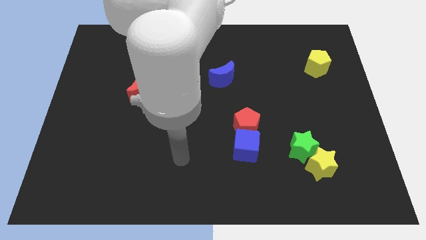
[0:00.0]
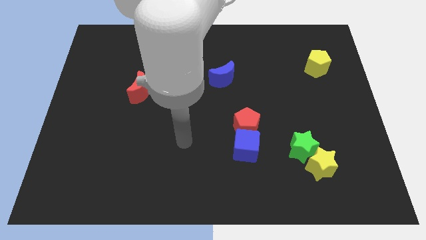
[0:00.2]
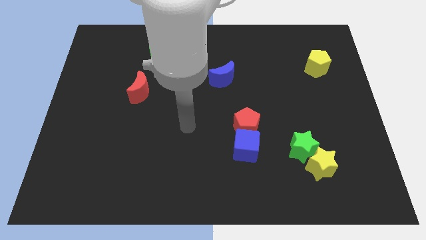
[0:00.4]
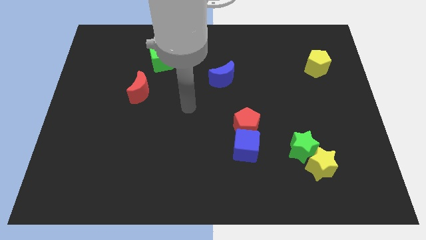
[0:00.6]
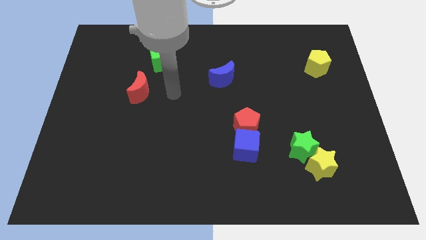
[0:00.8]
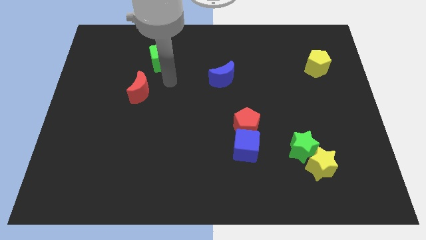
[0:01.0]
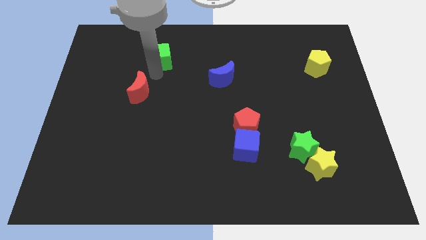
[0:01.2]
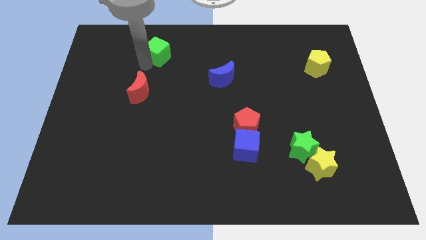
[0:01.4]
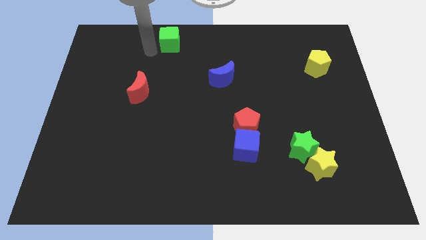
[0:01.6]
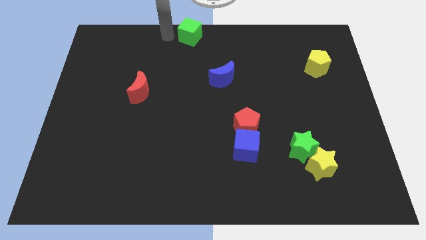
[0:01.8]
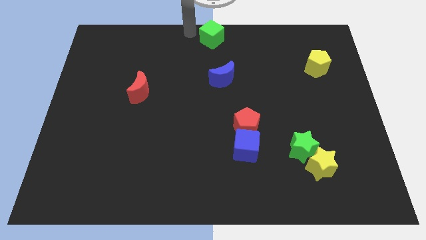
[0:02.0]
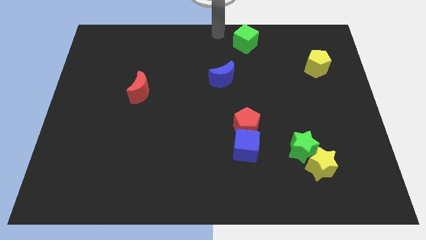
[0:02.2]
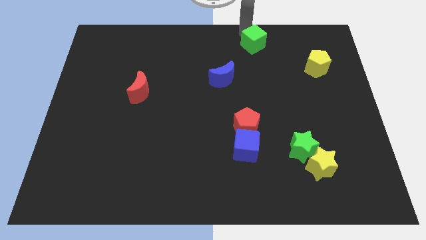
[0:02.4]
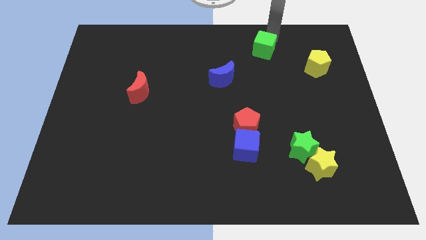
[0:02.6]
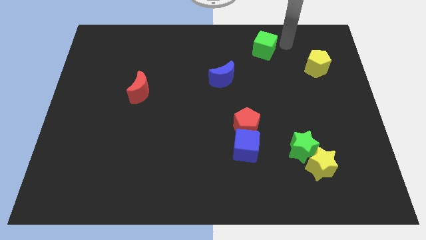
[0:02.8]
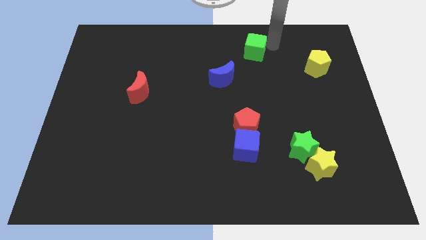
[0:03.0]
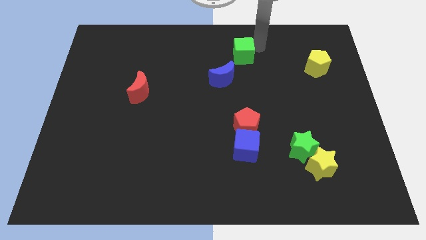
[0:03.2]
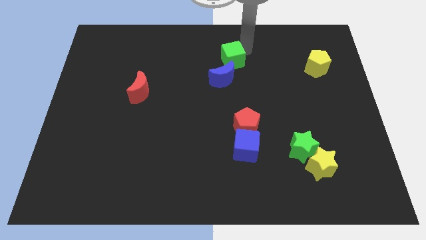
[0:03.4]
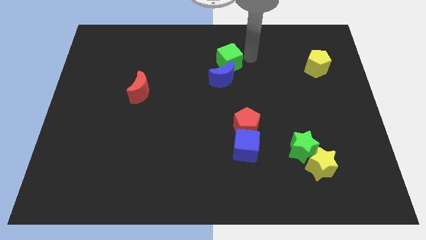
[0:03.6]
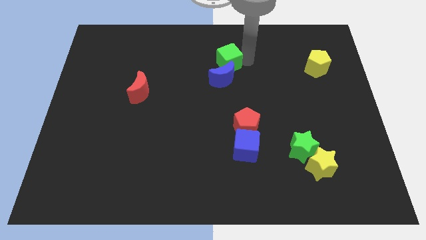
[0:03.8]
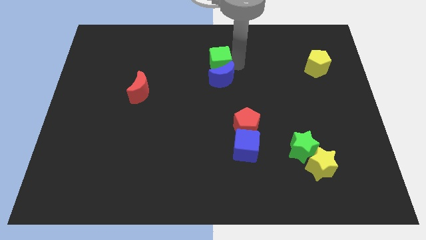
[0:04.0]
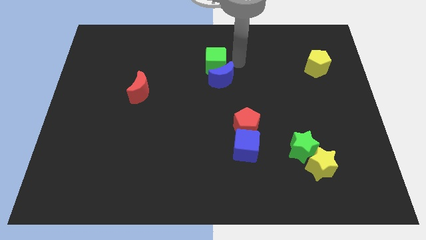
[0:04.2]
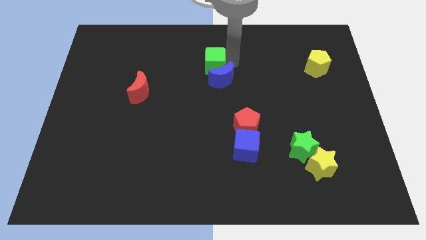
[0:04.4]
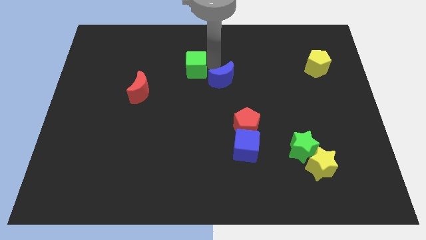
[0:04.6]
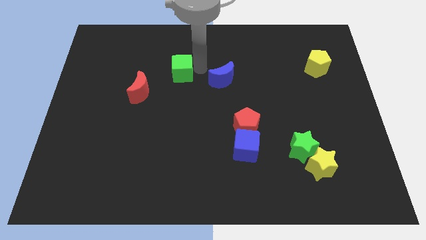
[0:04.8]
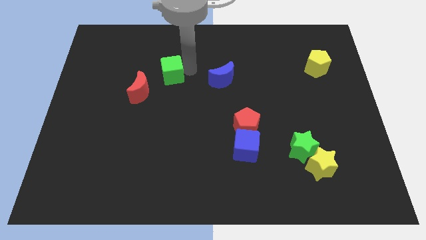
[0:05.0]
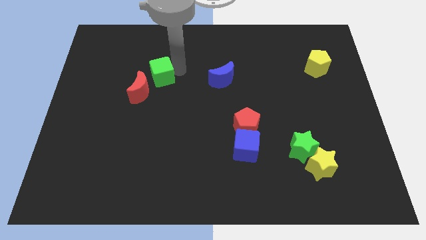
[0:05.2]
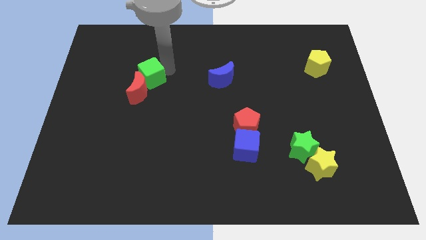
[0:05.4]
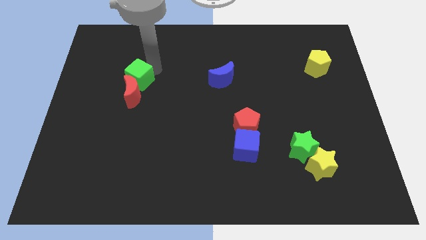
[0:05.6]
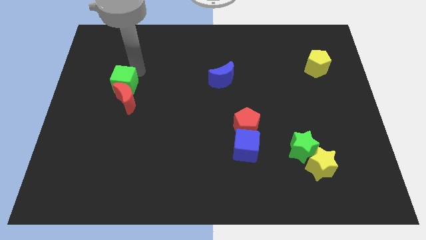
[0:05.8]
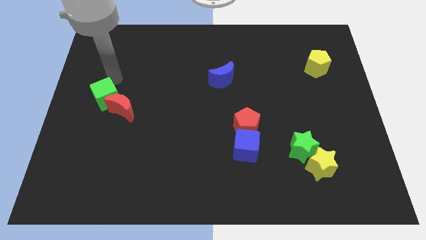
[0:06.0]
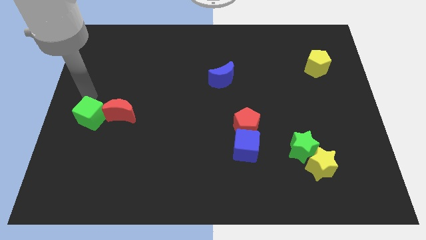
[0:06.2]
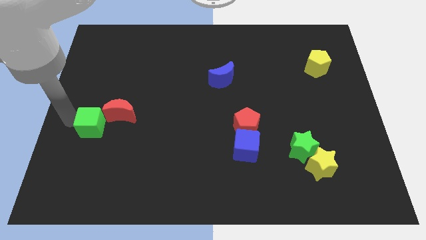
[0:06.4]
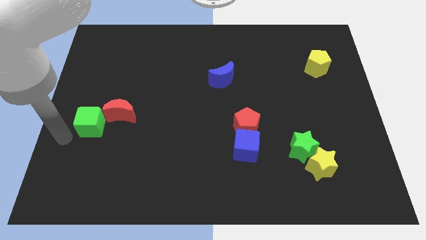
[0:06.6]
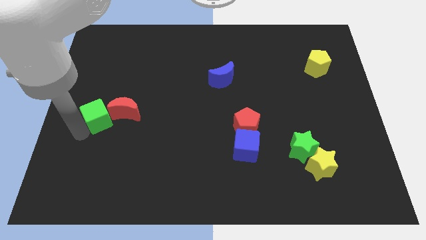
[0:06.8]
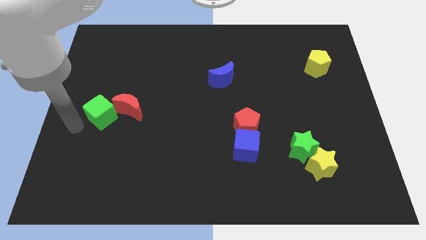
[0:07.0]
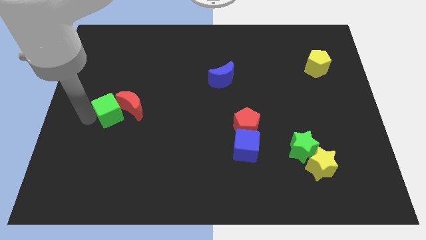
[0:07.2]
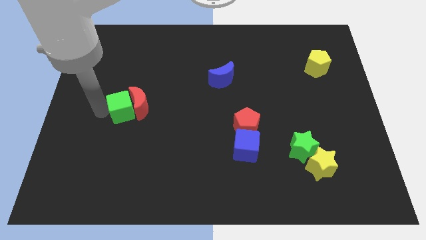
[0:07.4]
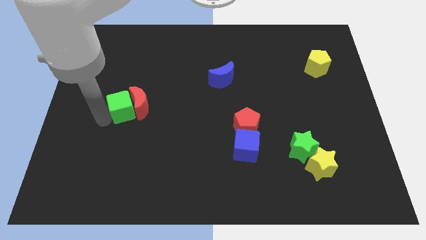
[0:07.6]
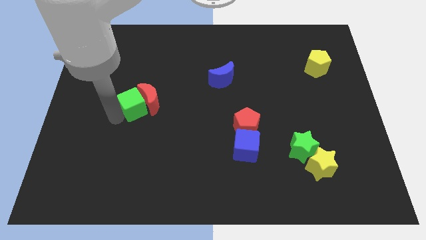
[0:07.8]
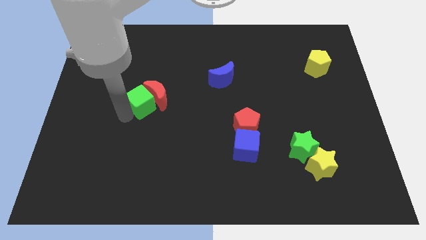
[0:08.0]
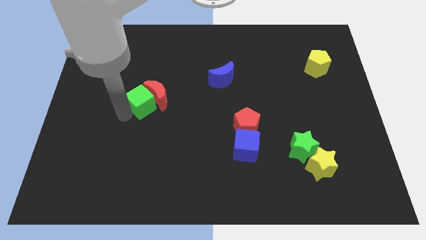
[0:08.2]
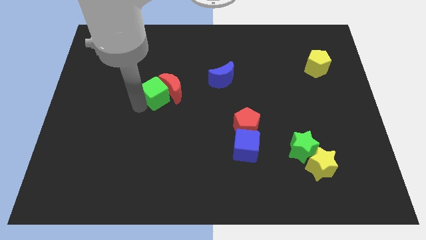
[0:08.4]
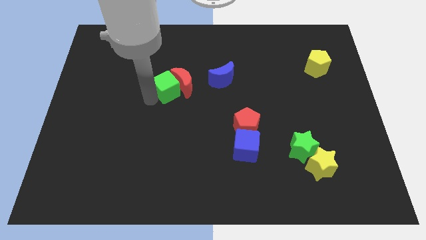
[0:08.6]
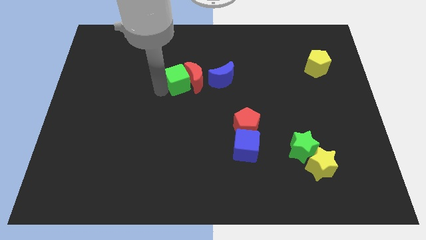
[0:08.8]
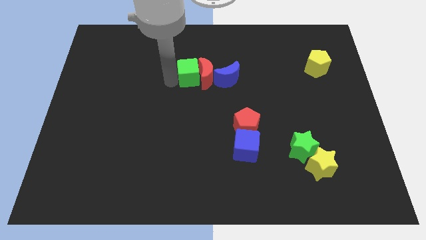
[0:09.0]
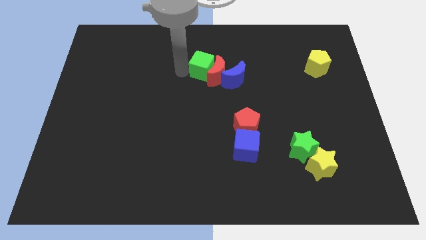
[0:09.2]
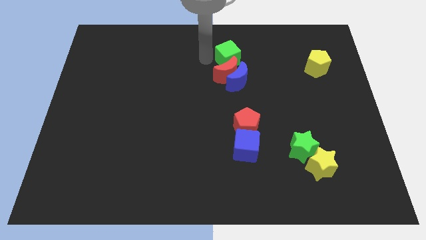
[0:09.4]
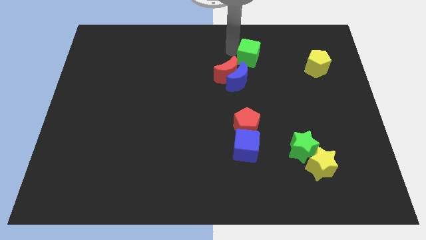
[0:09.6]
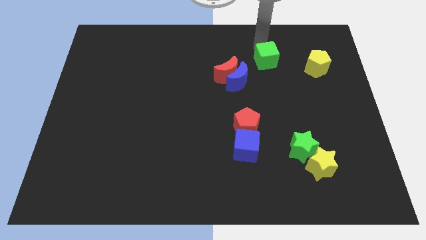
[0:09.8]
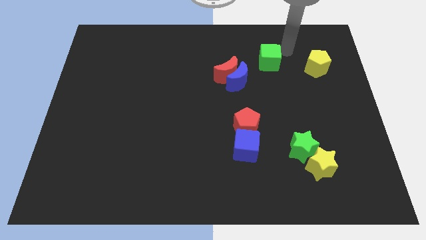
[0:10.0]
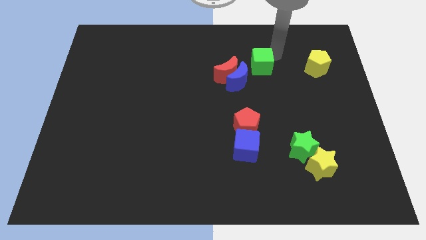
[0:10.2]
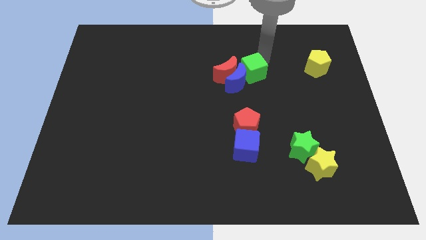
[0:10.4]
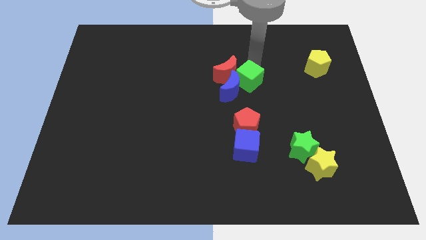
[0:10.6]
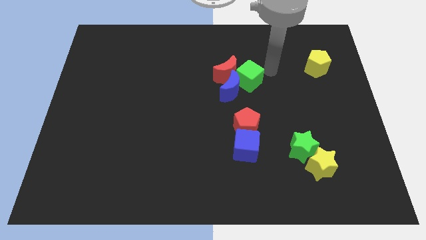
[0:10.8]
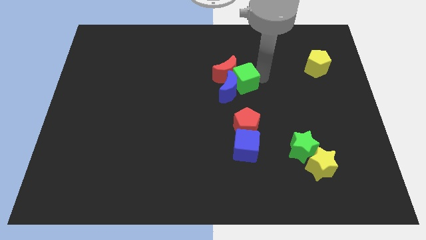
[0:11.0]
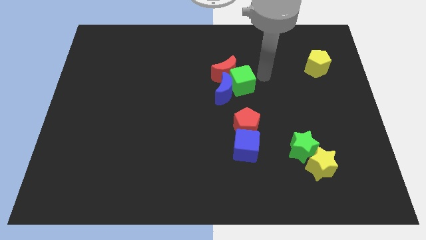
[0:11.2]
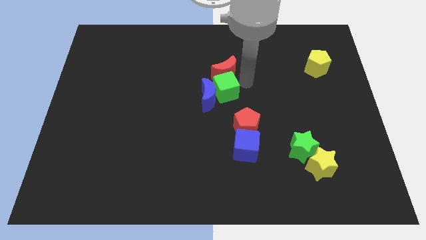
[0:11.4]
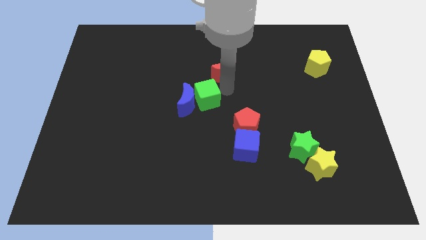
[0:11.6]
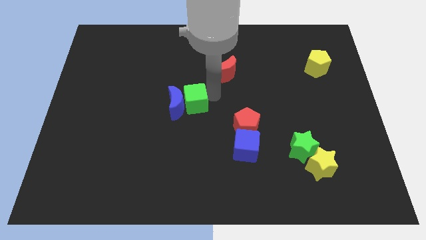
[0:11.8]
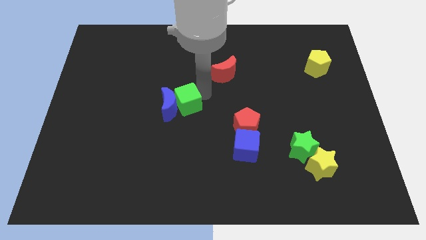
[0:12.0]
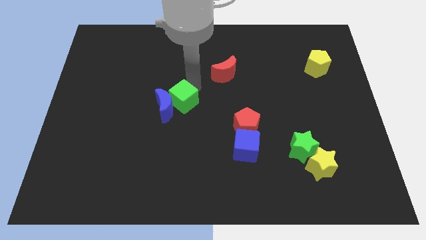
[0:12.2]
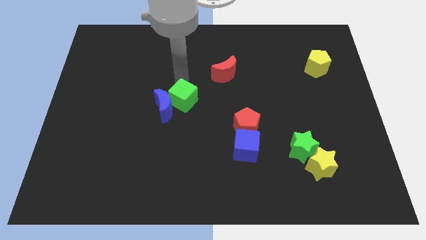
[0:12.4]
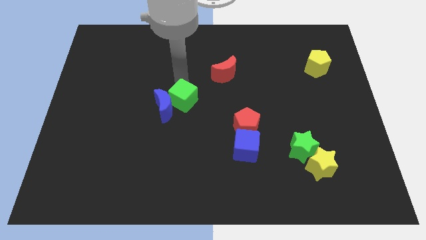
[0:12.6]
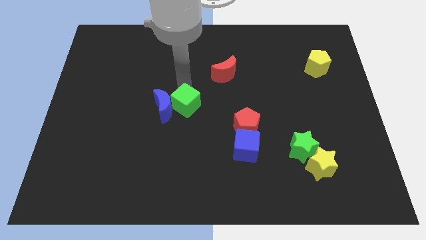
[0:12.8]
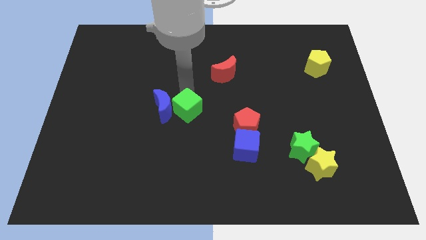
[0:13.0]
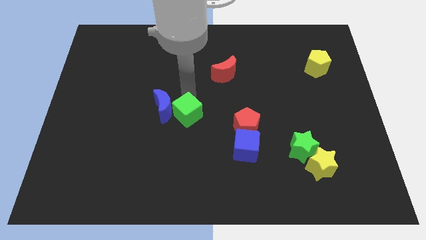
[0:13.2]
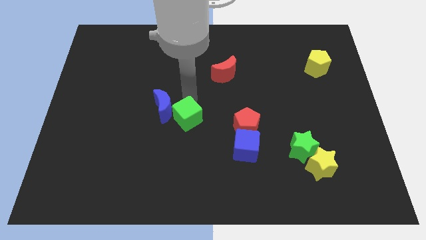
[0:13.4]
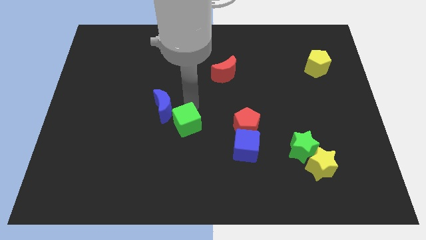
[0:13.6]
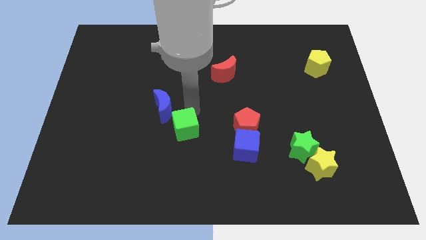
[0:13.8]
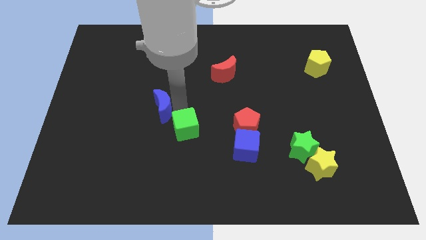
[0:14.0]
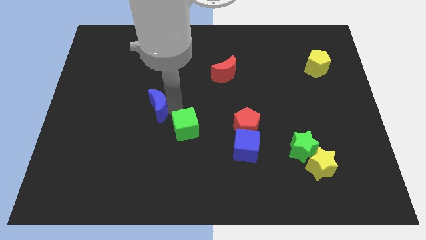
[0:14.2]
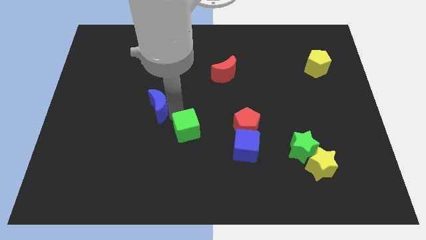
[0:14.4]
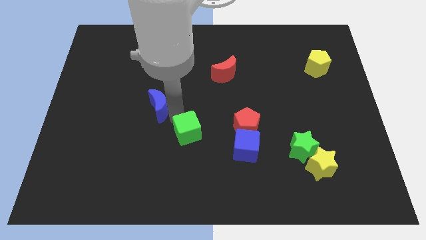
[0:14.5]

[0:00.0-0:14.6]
put the green cube left of the blue cube
